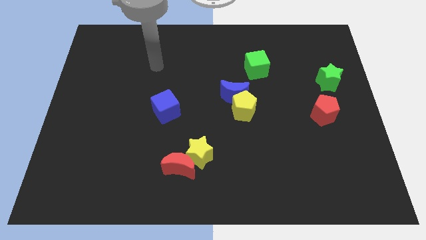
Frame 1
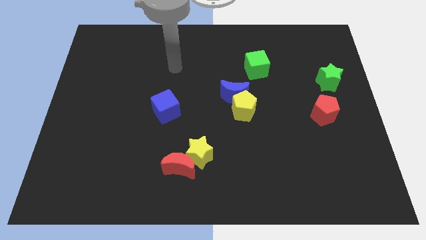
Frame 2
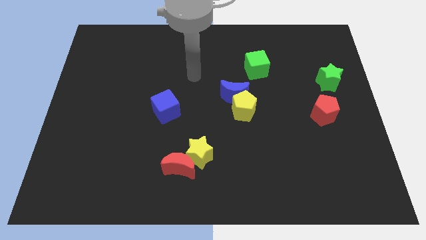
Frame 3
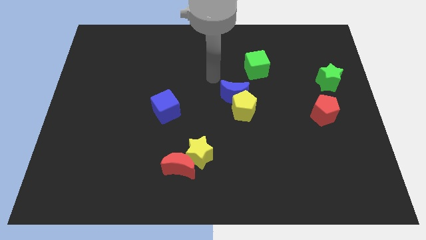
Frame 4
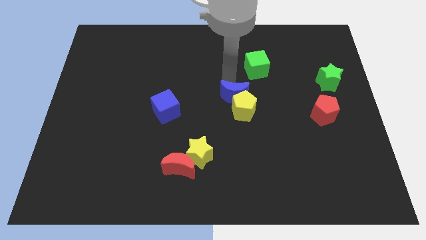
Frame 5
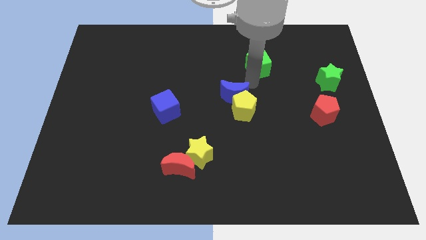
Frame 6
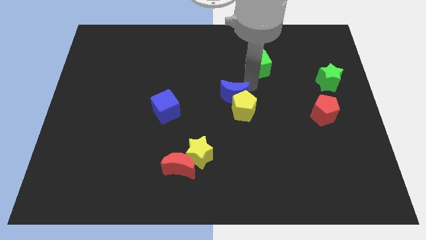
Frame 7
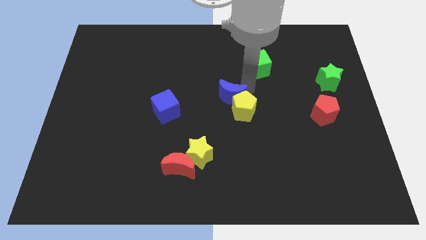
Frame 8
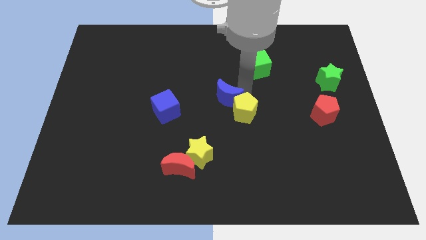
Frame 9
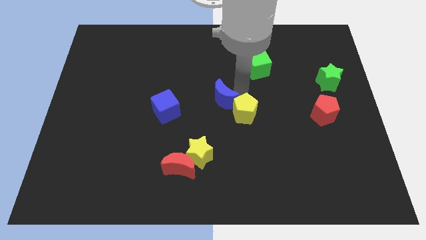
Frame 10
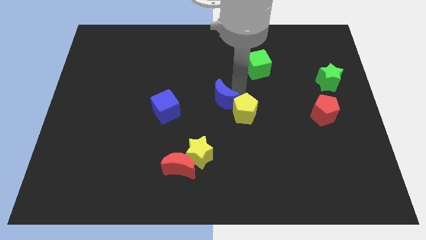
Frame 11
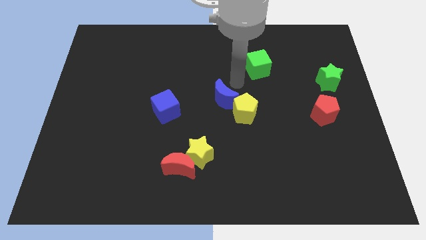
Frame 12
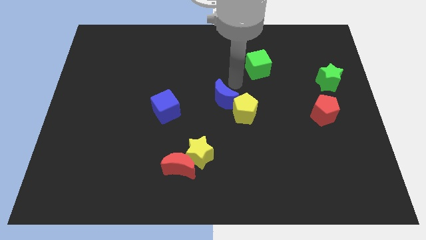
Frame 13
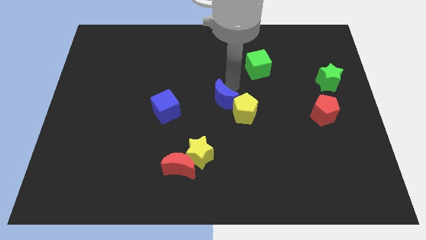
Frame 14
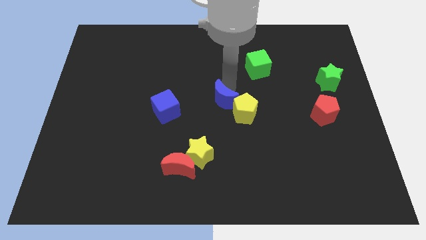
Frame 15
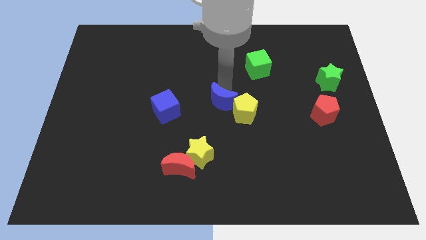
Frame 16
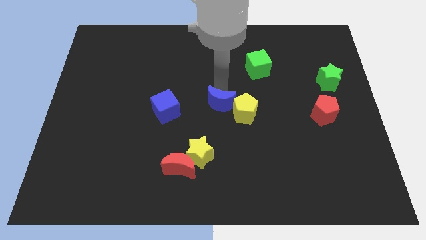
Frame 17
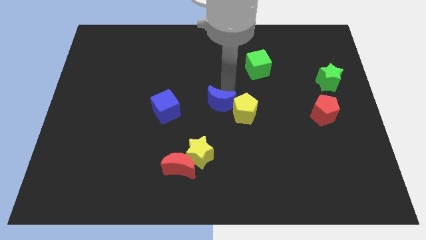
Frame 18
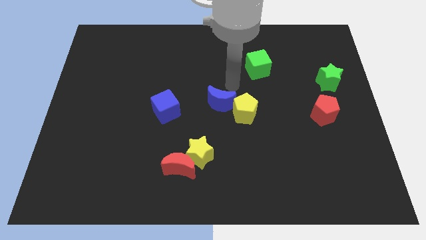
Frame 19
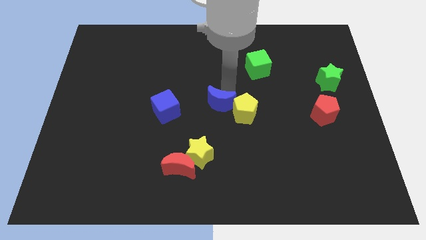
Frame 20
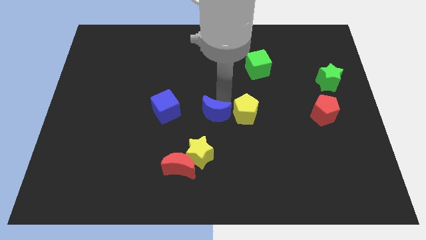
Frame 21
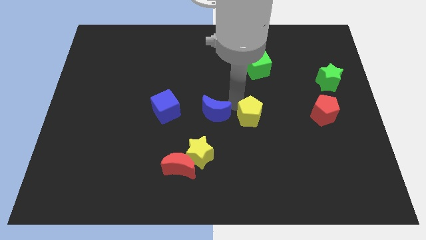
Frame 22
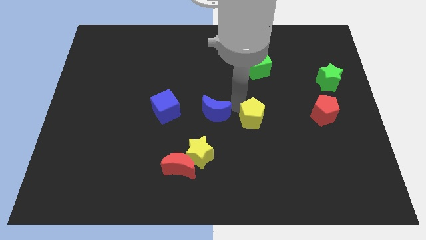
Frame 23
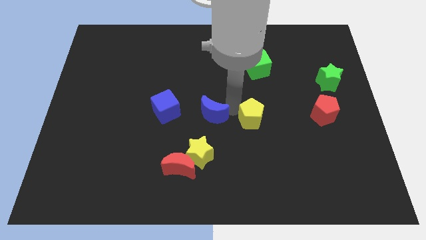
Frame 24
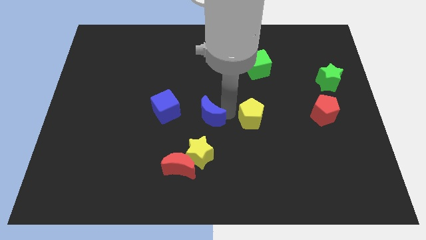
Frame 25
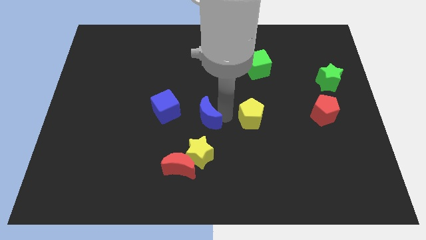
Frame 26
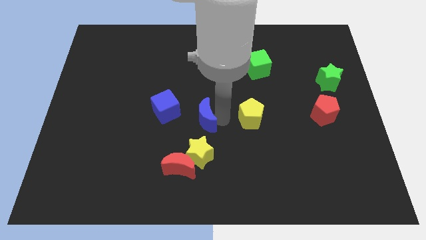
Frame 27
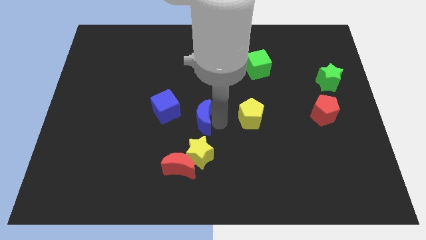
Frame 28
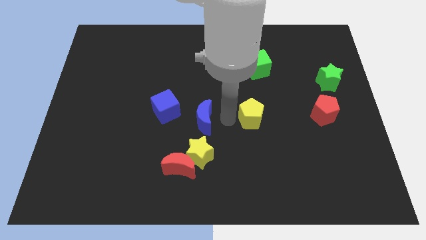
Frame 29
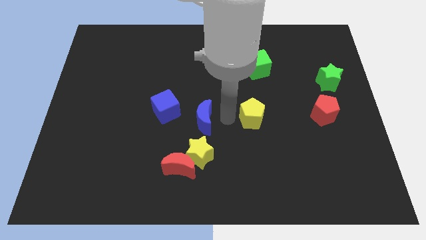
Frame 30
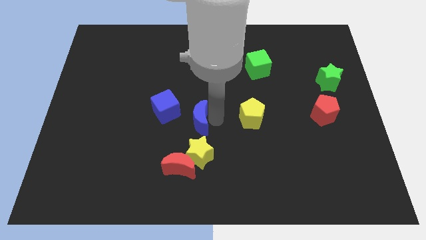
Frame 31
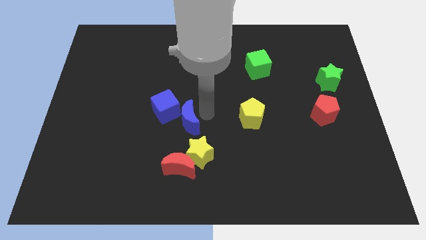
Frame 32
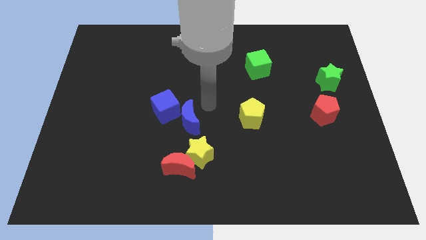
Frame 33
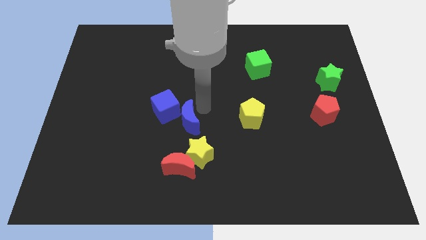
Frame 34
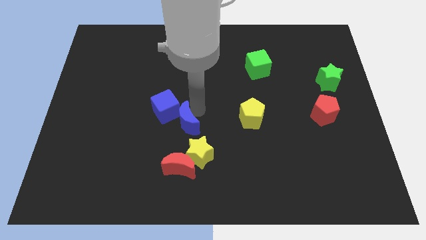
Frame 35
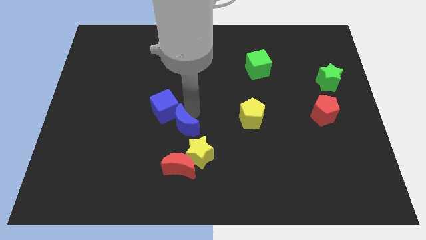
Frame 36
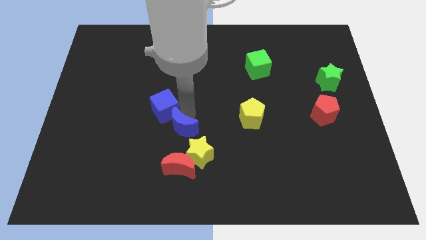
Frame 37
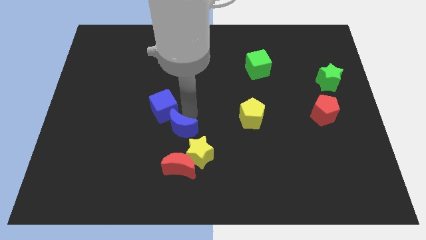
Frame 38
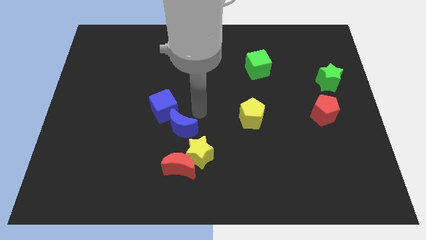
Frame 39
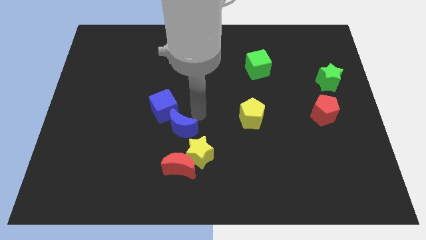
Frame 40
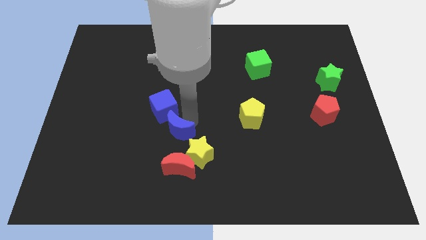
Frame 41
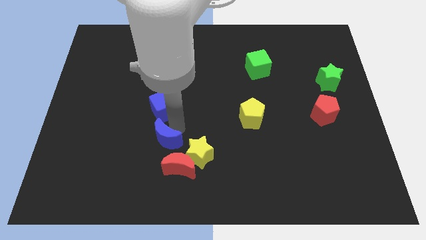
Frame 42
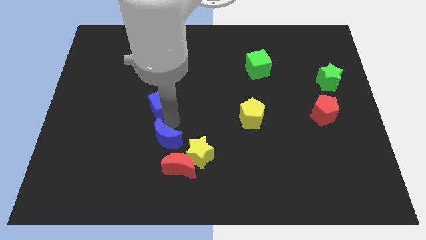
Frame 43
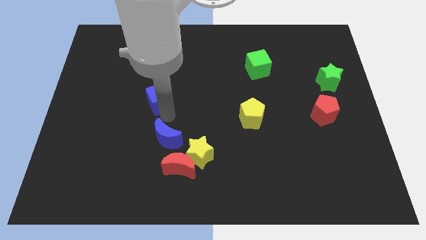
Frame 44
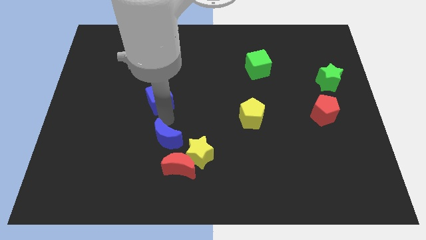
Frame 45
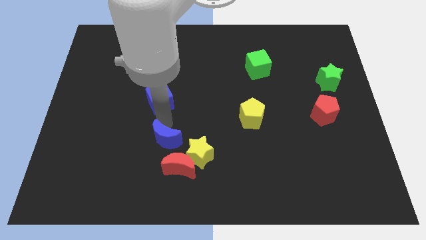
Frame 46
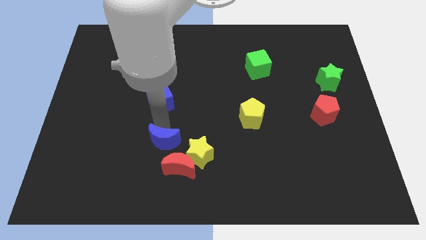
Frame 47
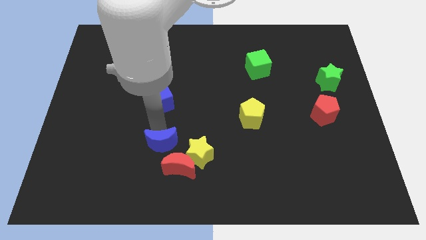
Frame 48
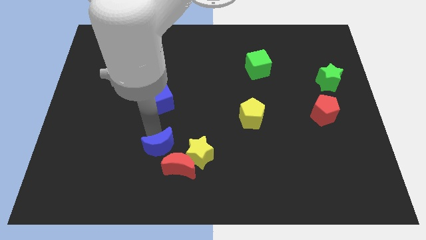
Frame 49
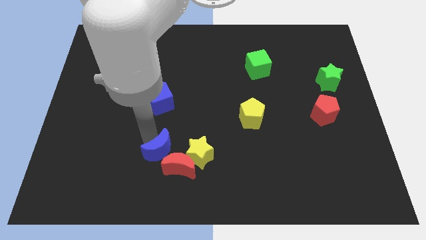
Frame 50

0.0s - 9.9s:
push the blue moon to the red moon

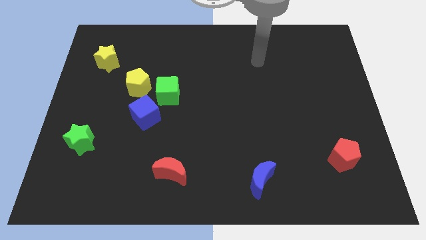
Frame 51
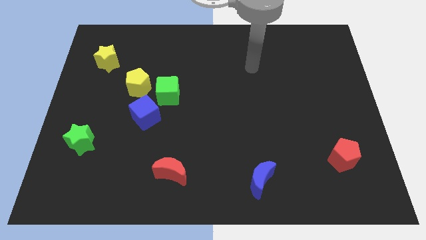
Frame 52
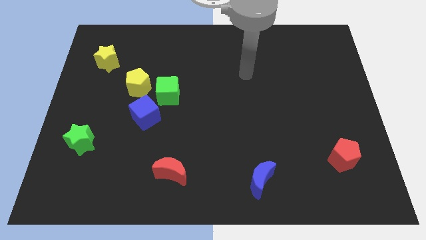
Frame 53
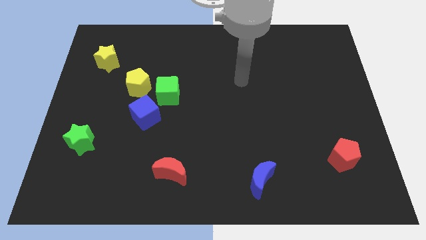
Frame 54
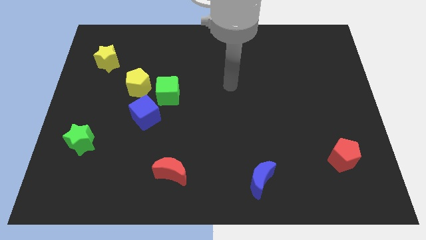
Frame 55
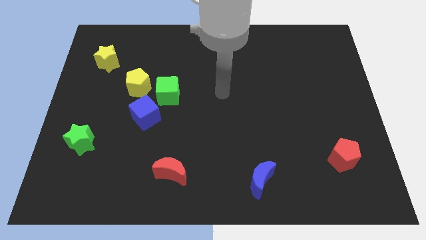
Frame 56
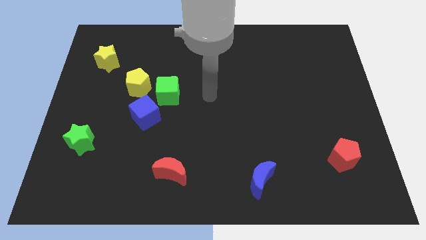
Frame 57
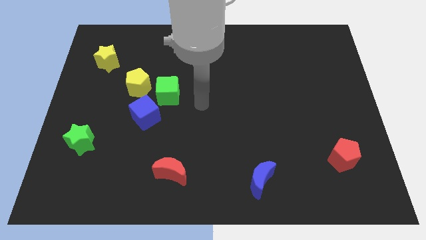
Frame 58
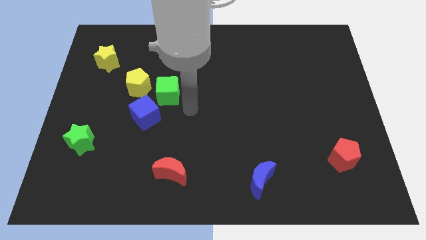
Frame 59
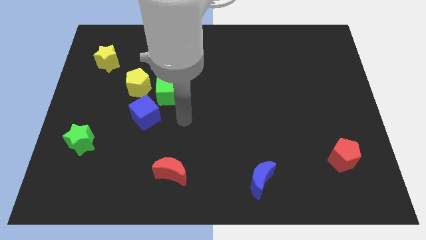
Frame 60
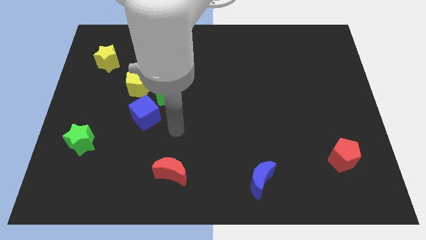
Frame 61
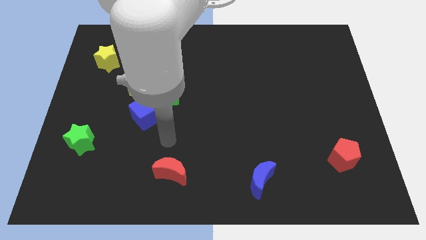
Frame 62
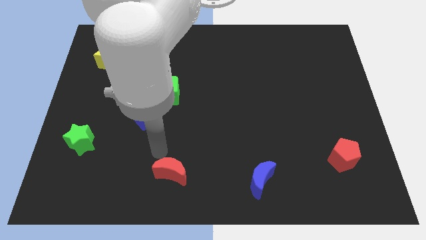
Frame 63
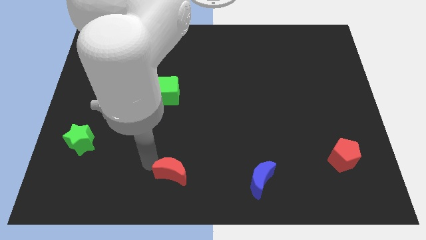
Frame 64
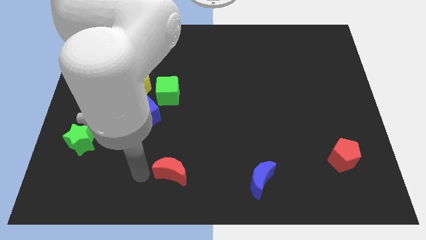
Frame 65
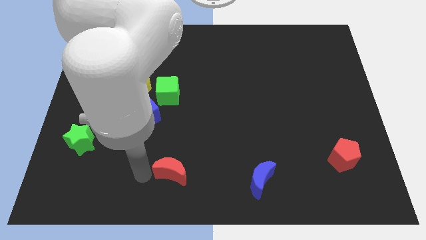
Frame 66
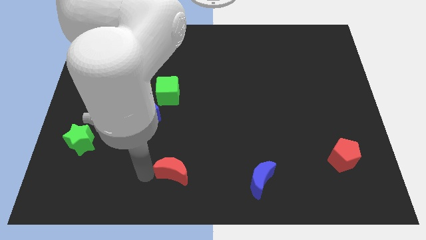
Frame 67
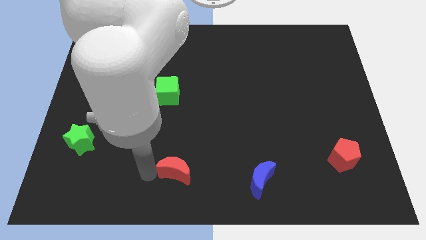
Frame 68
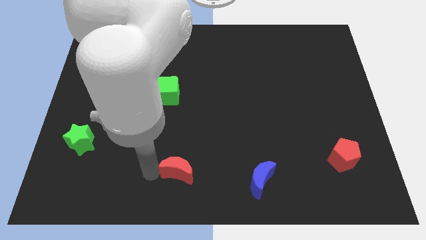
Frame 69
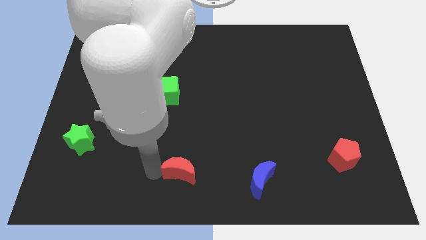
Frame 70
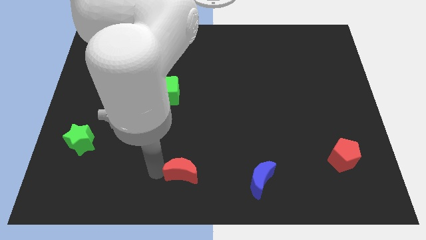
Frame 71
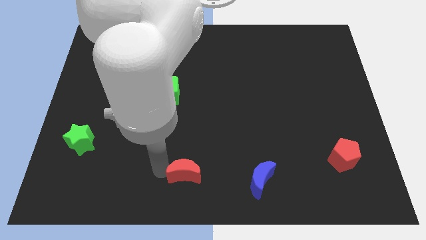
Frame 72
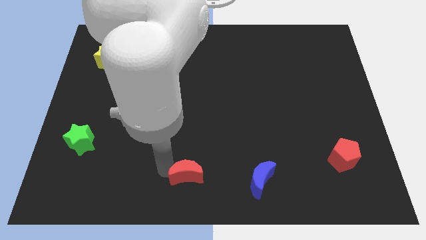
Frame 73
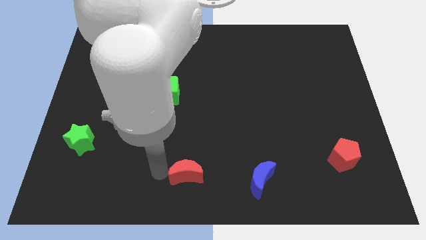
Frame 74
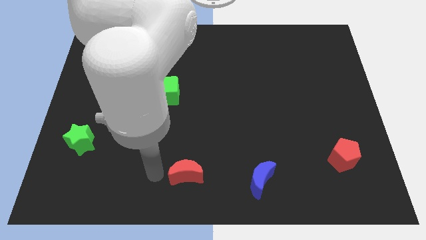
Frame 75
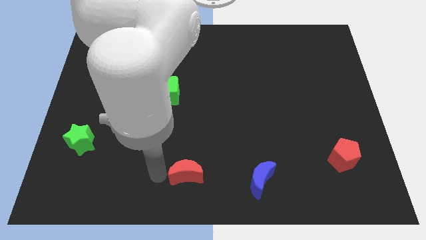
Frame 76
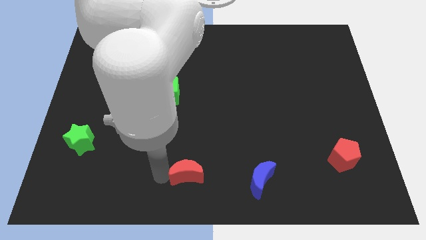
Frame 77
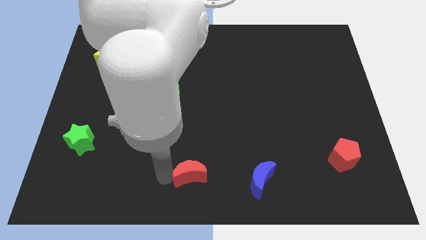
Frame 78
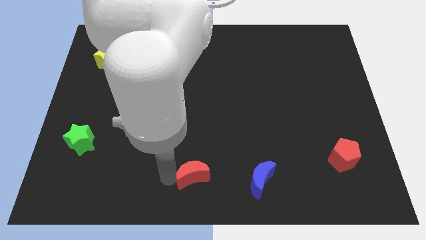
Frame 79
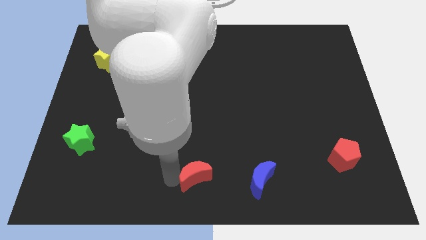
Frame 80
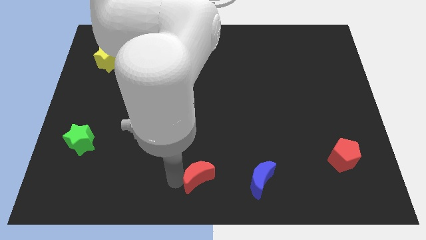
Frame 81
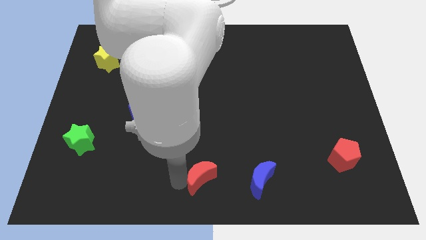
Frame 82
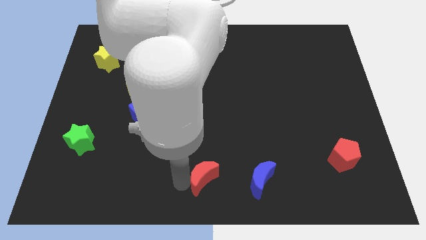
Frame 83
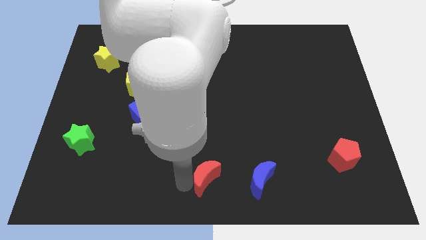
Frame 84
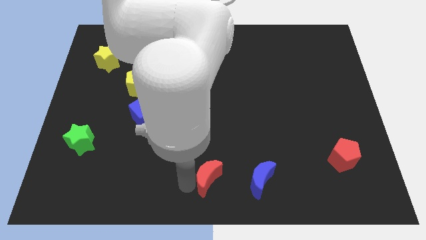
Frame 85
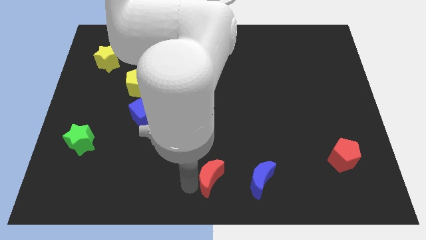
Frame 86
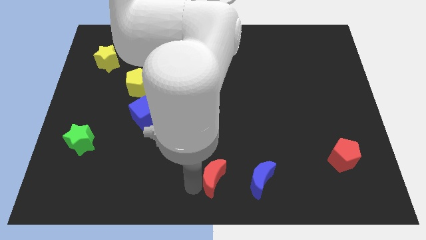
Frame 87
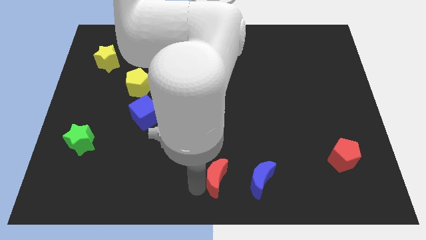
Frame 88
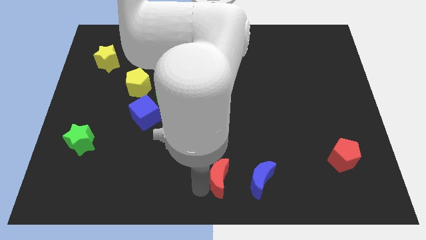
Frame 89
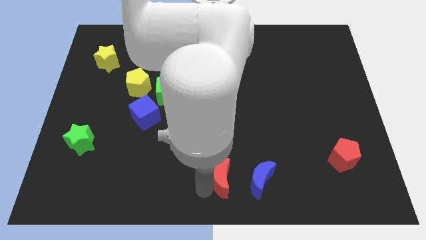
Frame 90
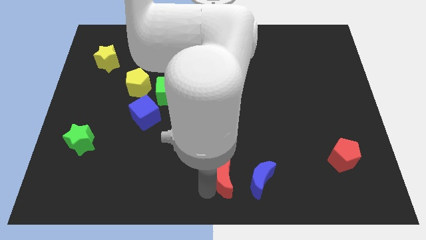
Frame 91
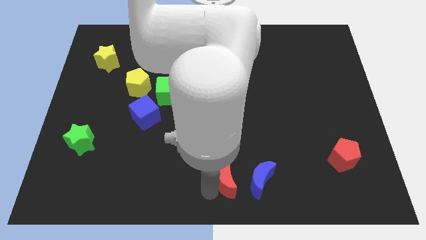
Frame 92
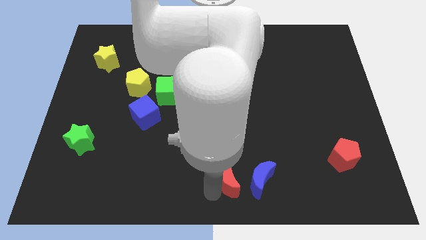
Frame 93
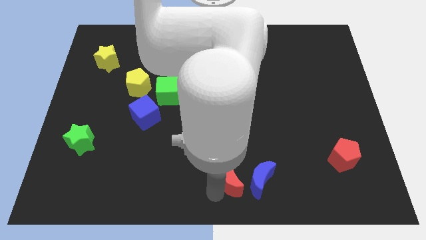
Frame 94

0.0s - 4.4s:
slide the red moon close to the blue moon
